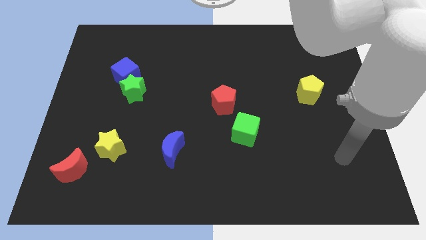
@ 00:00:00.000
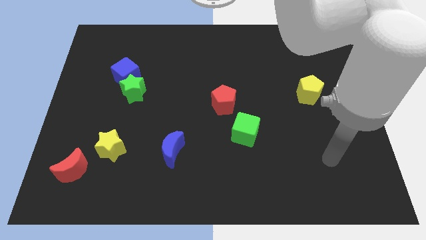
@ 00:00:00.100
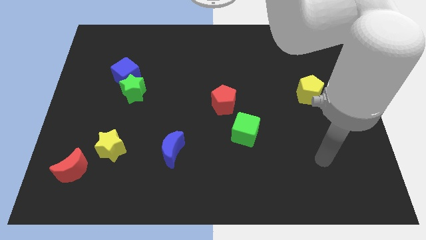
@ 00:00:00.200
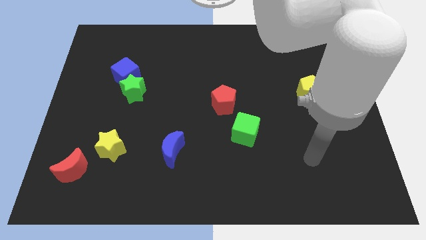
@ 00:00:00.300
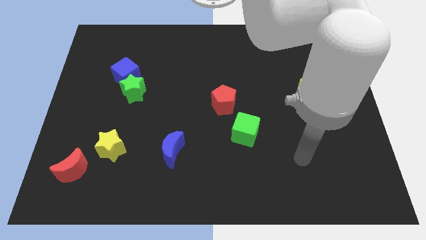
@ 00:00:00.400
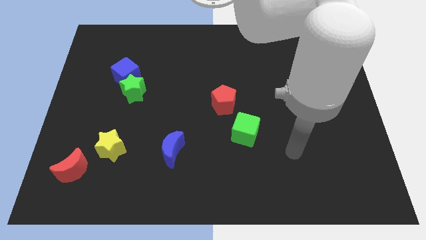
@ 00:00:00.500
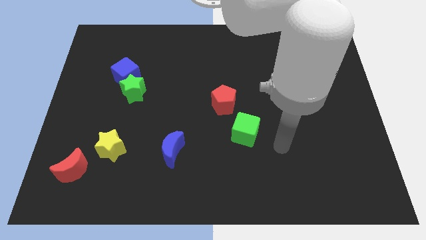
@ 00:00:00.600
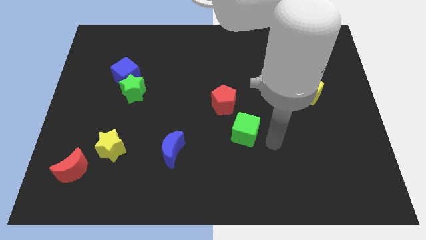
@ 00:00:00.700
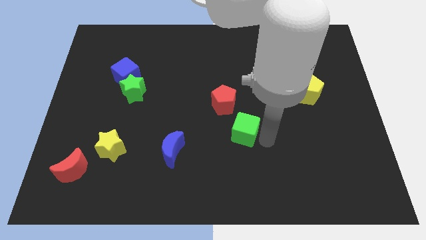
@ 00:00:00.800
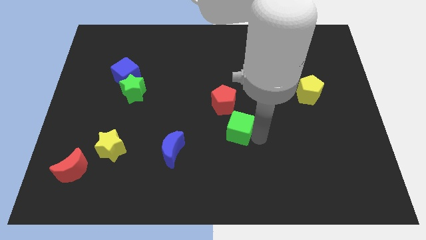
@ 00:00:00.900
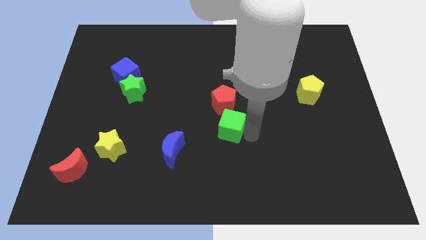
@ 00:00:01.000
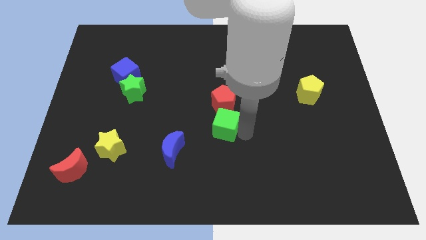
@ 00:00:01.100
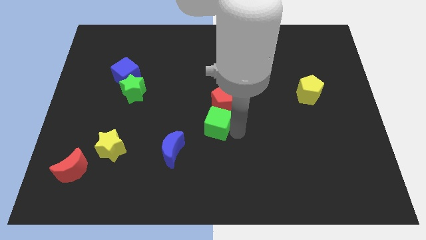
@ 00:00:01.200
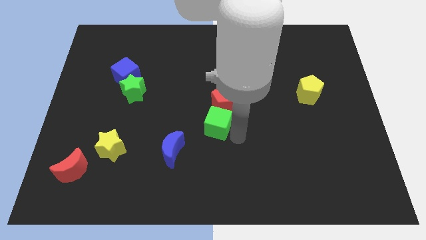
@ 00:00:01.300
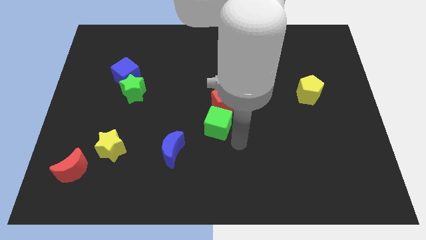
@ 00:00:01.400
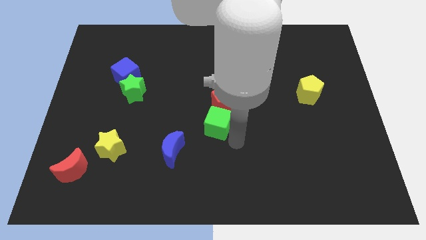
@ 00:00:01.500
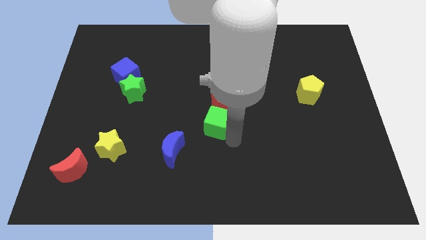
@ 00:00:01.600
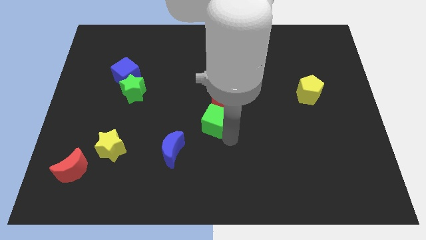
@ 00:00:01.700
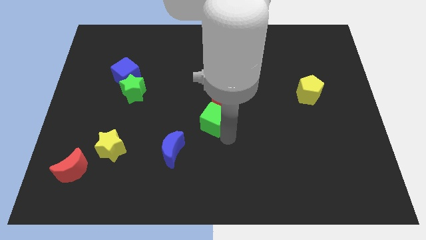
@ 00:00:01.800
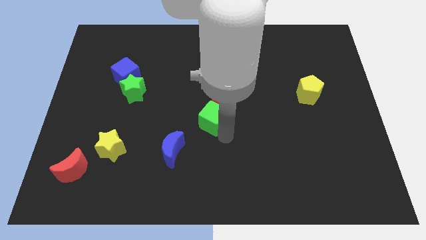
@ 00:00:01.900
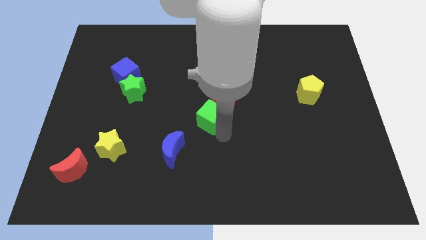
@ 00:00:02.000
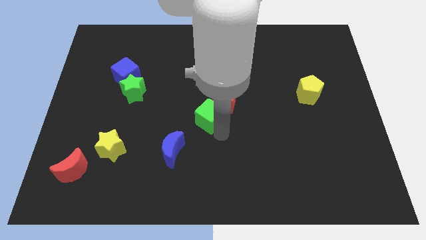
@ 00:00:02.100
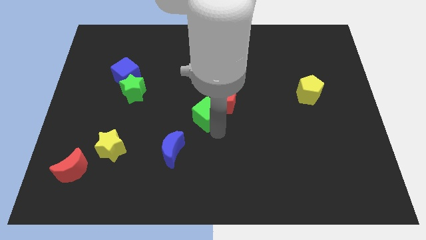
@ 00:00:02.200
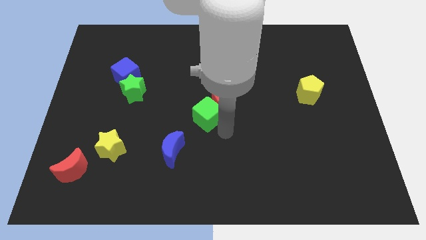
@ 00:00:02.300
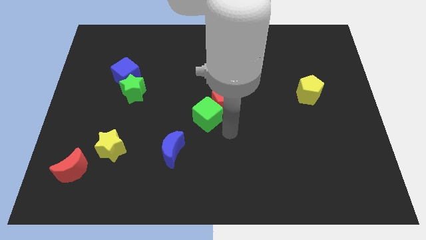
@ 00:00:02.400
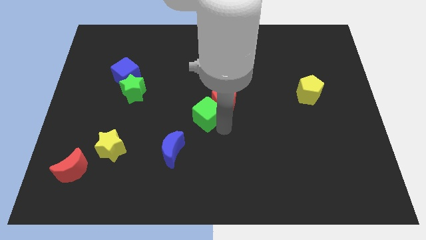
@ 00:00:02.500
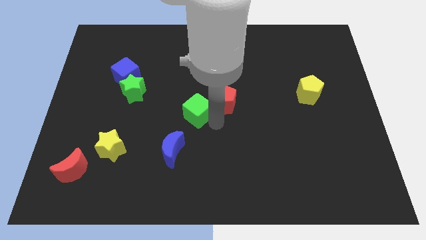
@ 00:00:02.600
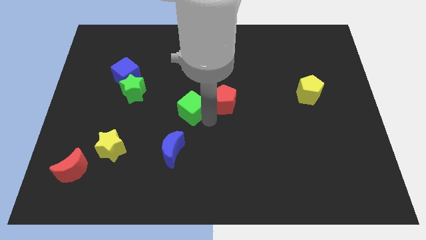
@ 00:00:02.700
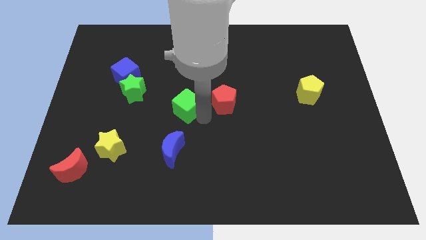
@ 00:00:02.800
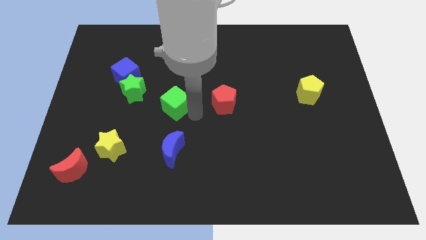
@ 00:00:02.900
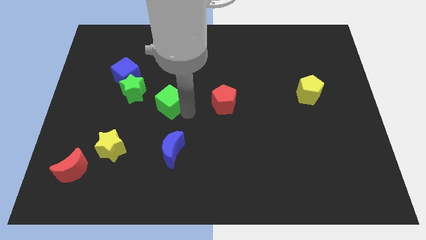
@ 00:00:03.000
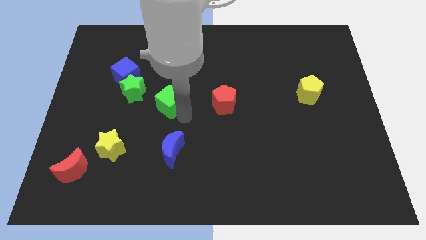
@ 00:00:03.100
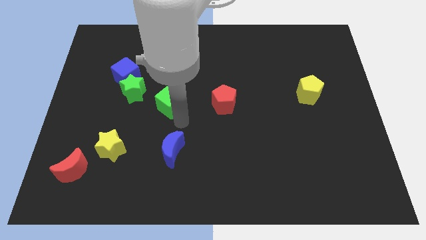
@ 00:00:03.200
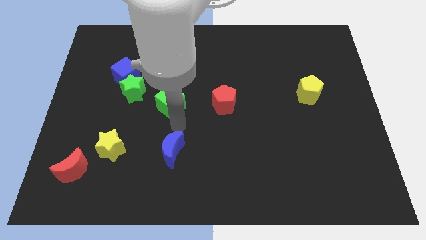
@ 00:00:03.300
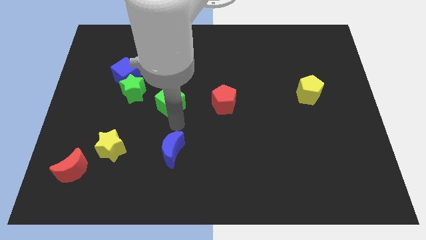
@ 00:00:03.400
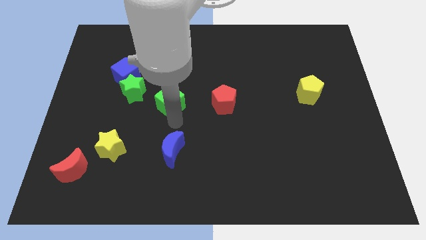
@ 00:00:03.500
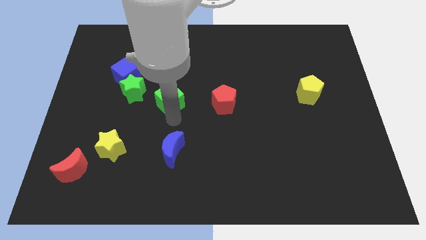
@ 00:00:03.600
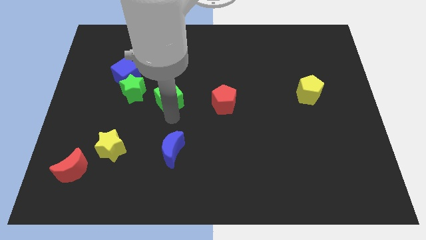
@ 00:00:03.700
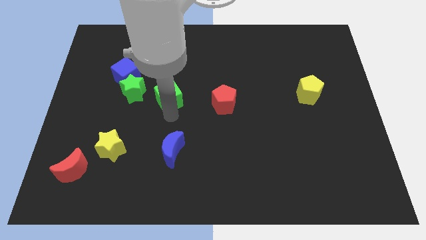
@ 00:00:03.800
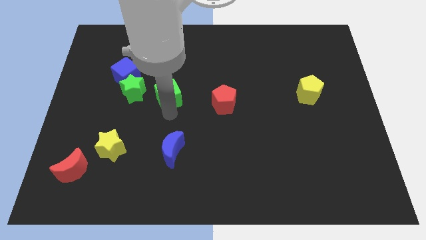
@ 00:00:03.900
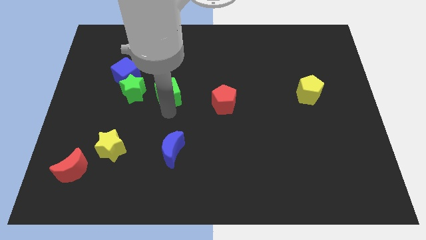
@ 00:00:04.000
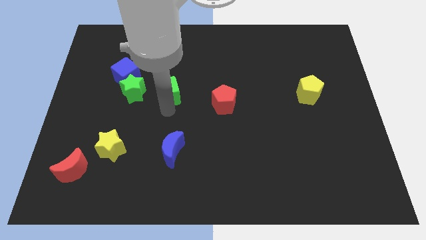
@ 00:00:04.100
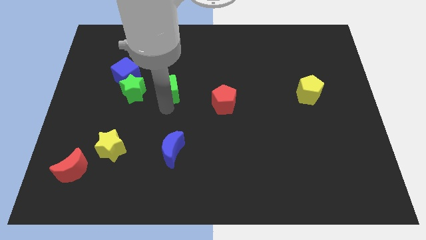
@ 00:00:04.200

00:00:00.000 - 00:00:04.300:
slide the green cube upwards and then to the left

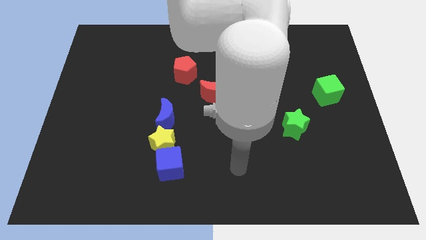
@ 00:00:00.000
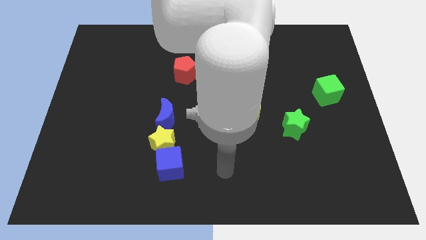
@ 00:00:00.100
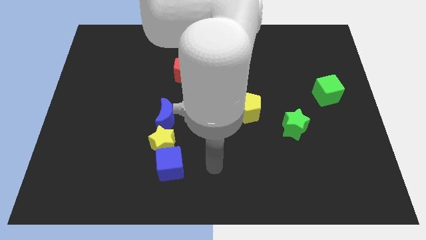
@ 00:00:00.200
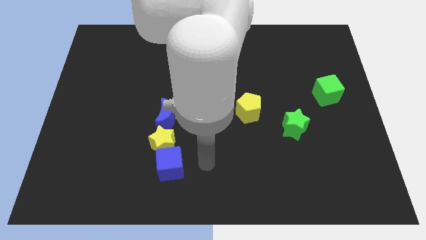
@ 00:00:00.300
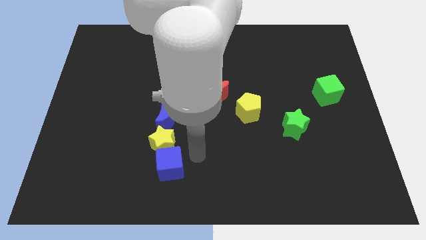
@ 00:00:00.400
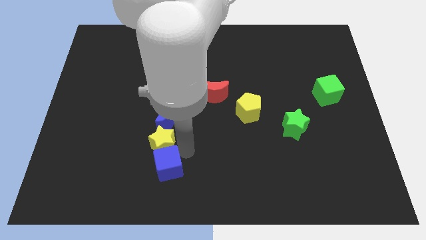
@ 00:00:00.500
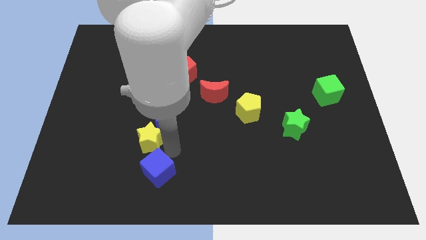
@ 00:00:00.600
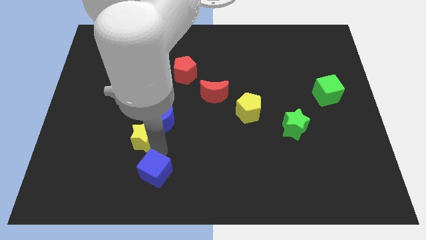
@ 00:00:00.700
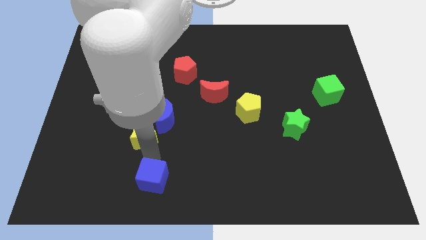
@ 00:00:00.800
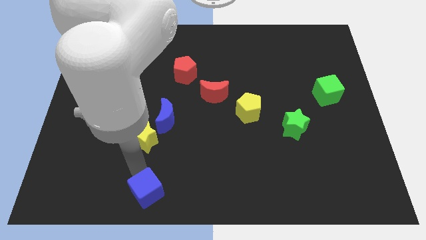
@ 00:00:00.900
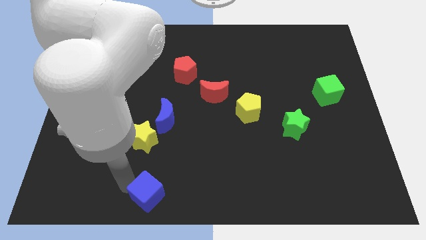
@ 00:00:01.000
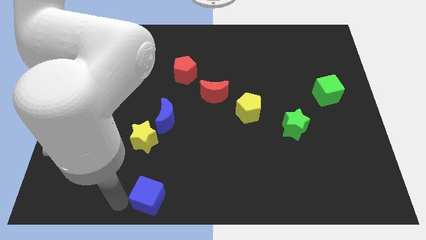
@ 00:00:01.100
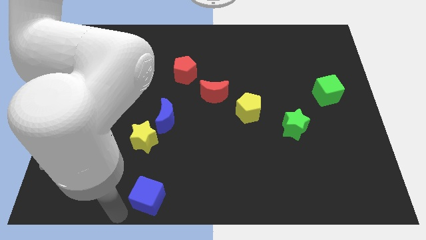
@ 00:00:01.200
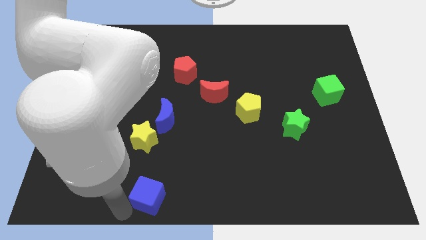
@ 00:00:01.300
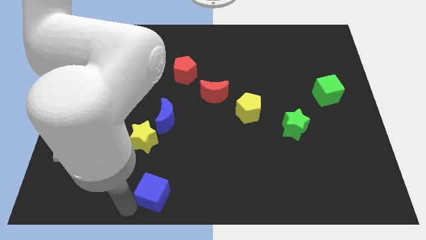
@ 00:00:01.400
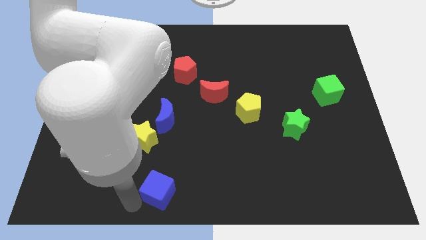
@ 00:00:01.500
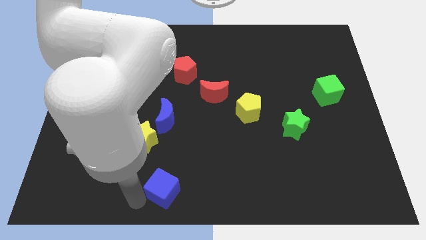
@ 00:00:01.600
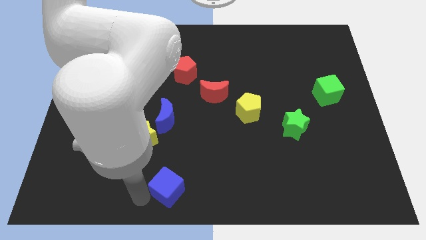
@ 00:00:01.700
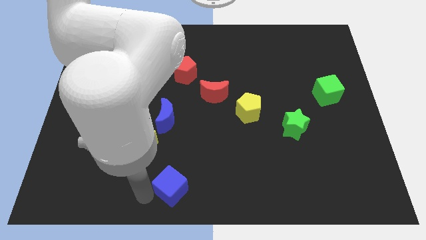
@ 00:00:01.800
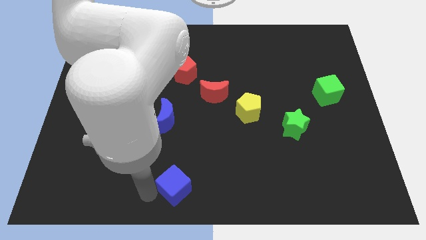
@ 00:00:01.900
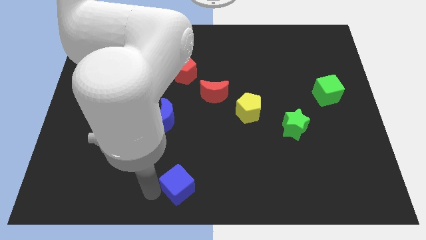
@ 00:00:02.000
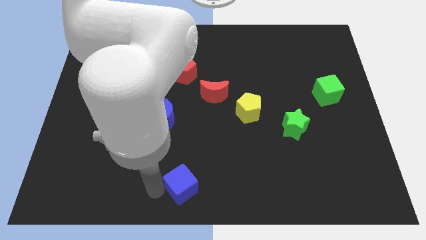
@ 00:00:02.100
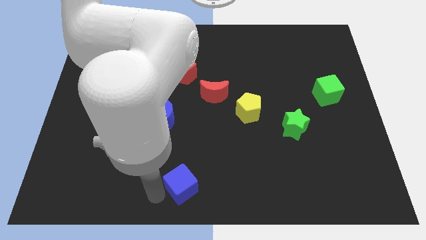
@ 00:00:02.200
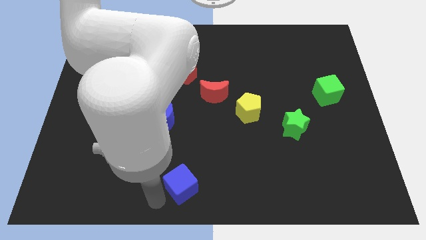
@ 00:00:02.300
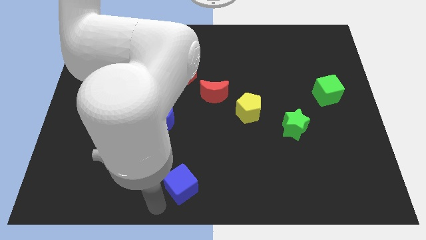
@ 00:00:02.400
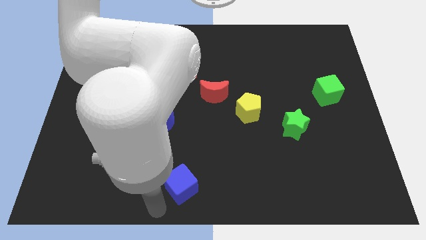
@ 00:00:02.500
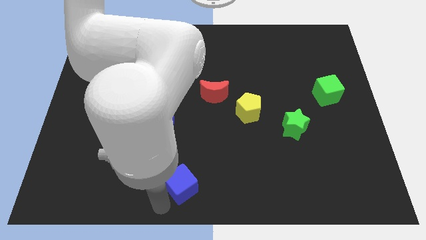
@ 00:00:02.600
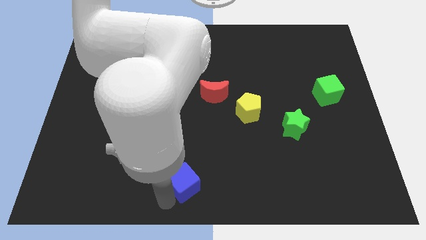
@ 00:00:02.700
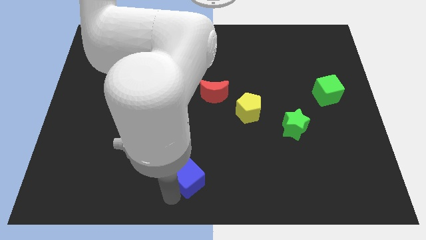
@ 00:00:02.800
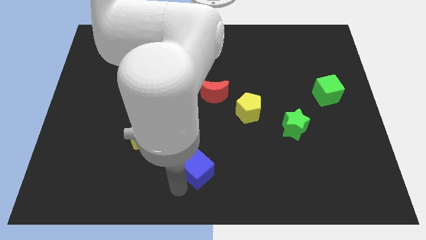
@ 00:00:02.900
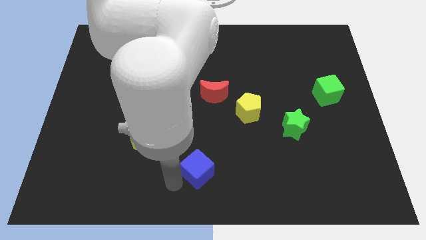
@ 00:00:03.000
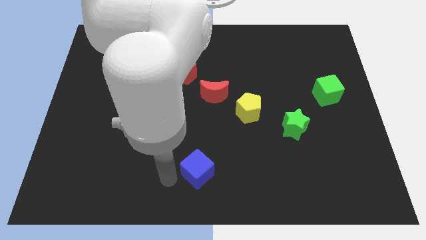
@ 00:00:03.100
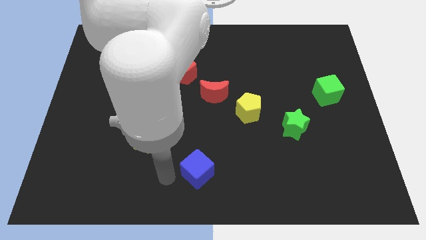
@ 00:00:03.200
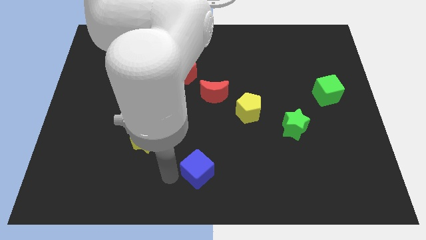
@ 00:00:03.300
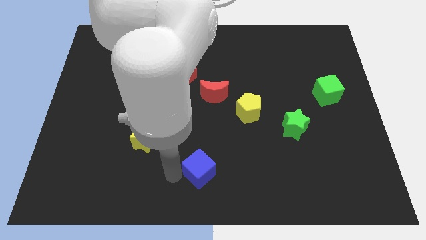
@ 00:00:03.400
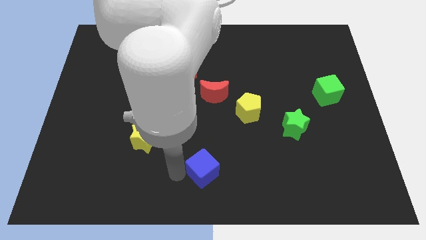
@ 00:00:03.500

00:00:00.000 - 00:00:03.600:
push the blue cube a little bit to the right

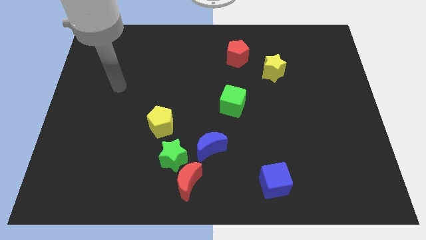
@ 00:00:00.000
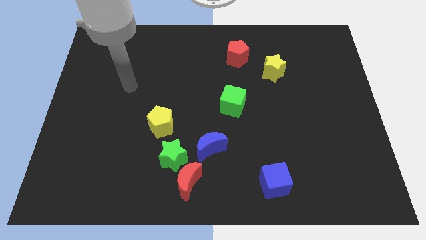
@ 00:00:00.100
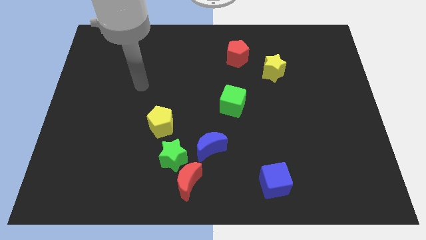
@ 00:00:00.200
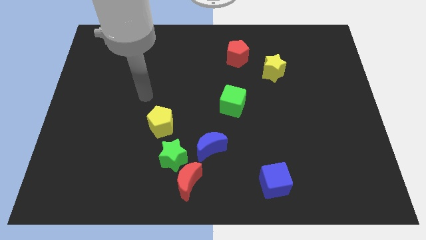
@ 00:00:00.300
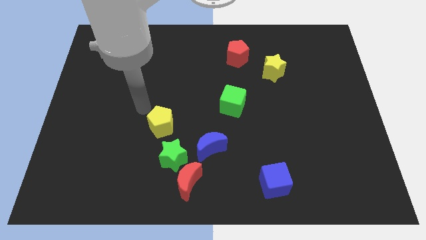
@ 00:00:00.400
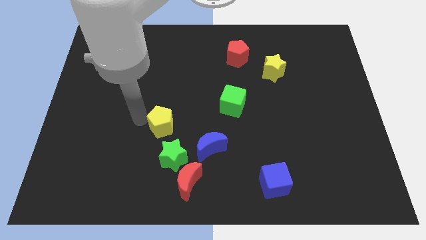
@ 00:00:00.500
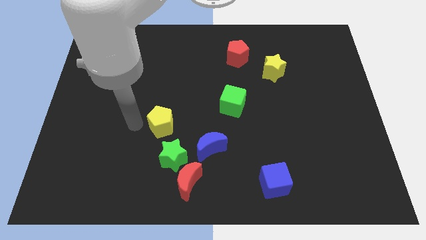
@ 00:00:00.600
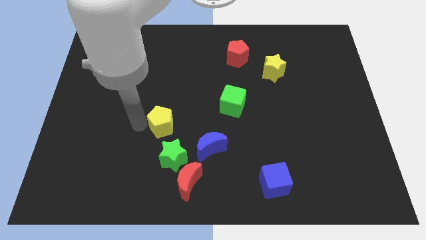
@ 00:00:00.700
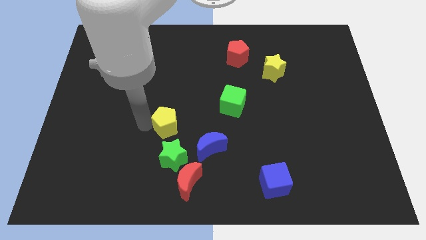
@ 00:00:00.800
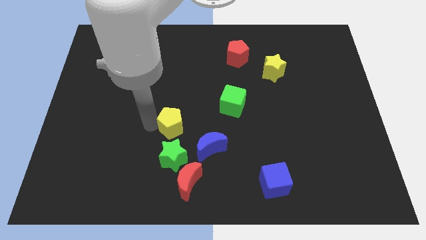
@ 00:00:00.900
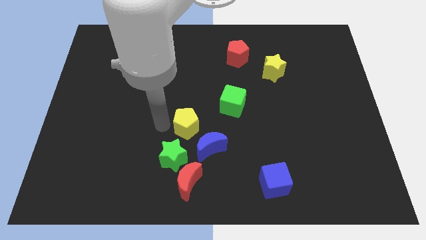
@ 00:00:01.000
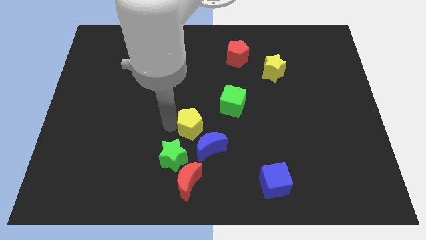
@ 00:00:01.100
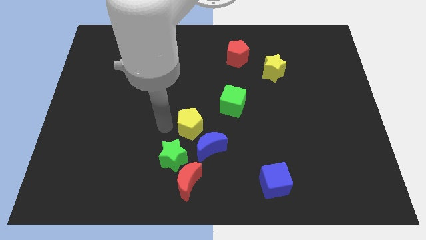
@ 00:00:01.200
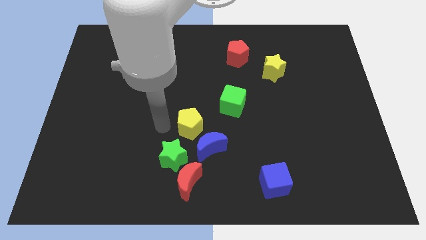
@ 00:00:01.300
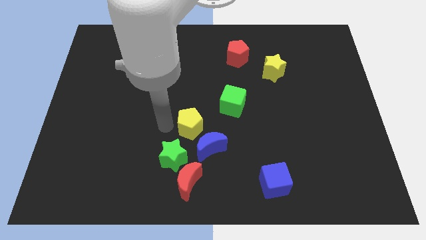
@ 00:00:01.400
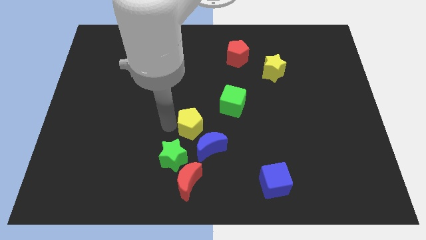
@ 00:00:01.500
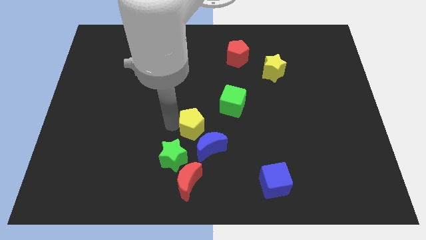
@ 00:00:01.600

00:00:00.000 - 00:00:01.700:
slightly slide the yellow pentagon right
